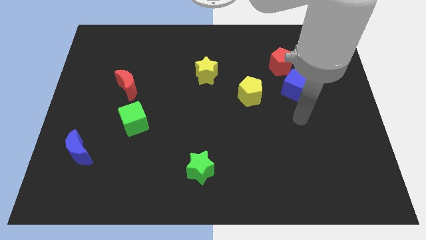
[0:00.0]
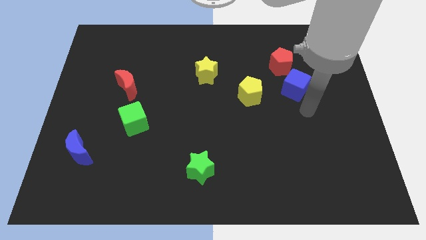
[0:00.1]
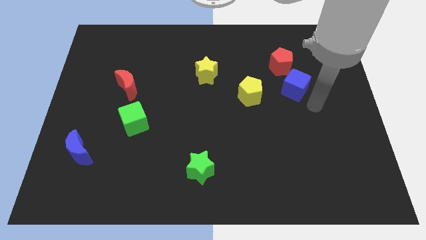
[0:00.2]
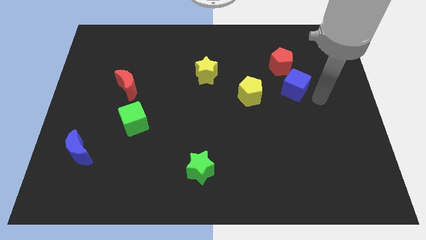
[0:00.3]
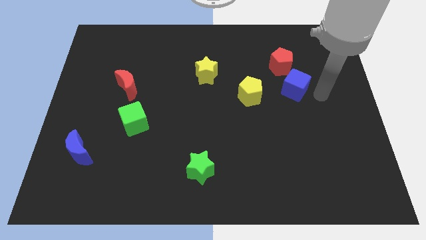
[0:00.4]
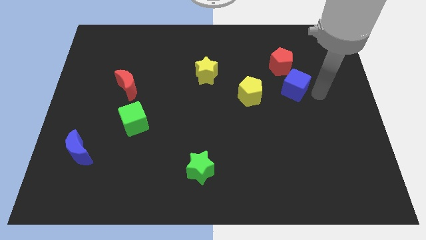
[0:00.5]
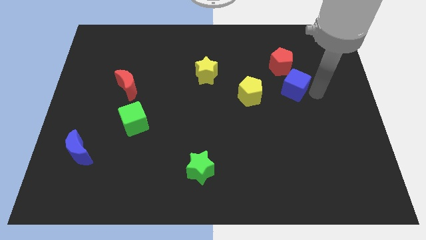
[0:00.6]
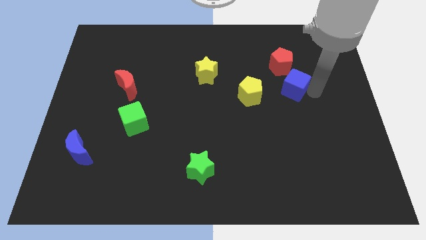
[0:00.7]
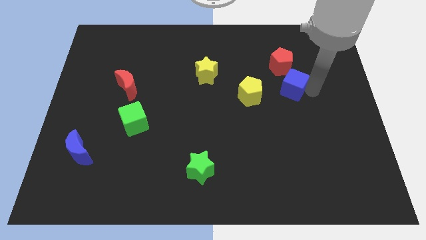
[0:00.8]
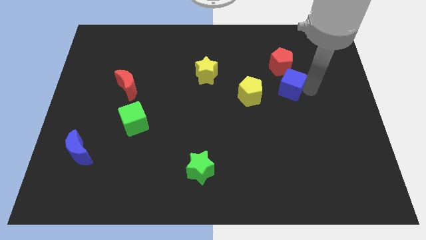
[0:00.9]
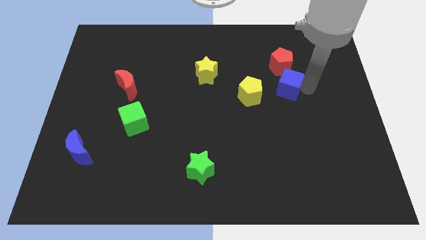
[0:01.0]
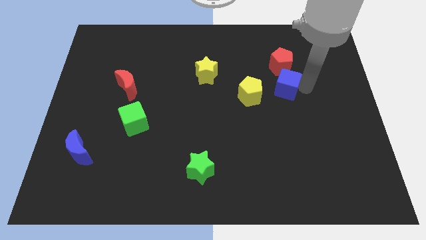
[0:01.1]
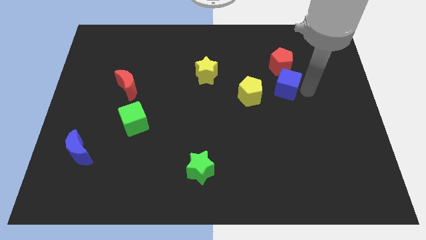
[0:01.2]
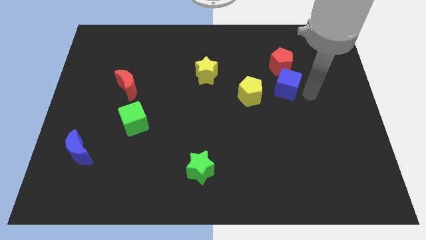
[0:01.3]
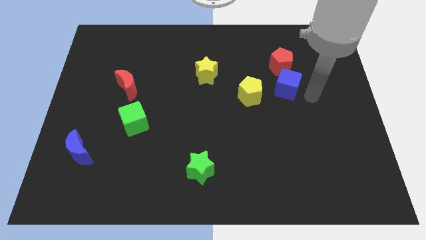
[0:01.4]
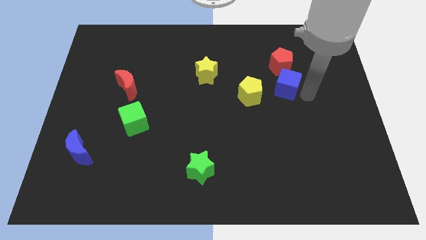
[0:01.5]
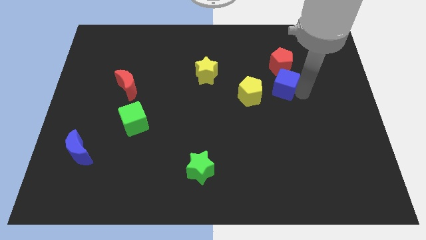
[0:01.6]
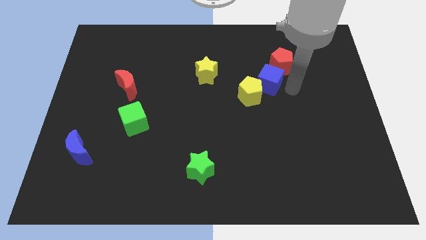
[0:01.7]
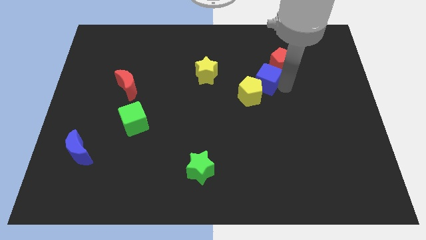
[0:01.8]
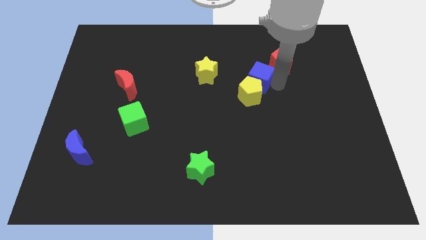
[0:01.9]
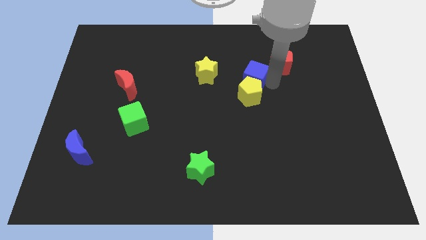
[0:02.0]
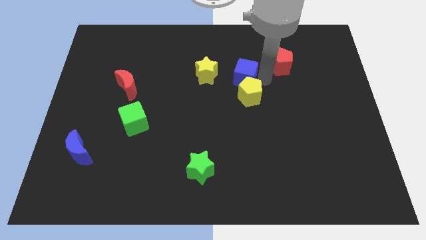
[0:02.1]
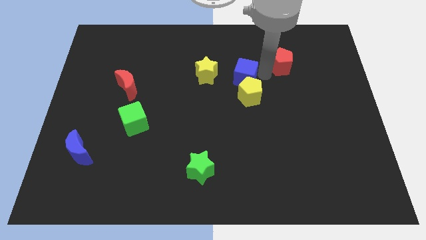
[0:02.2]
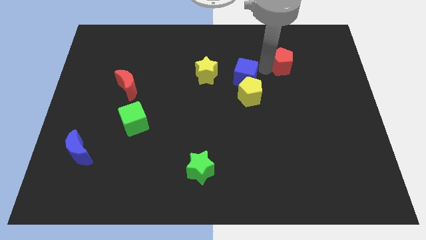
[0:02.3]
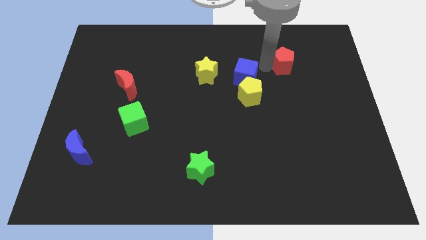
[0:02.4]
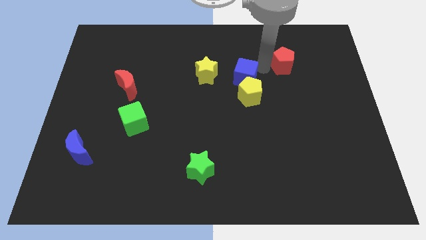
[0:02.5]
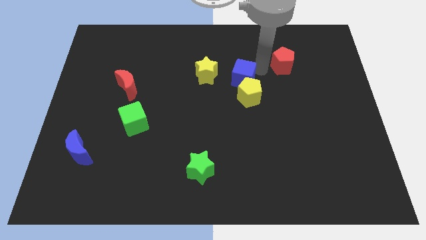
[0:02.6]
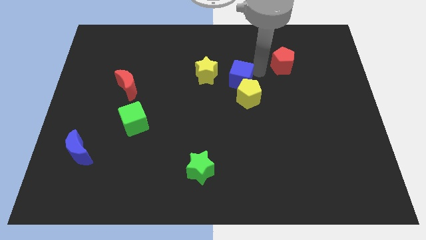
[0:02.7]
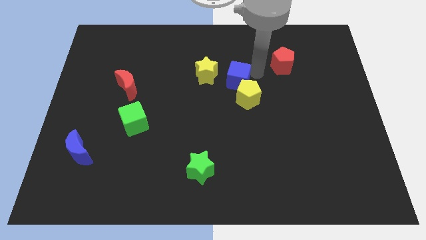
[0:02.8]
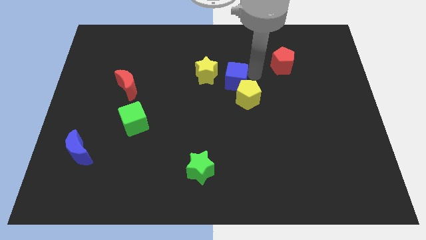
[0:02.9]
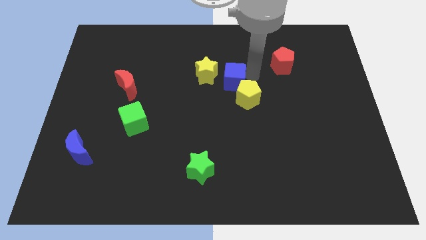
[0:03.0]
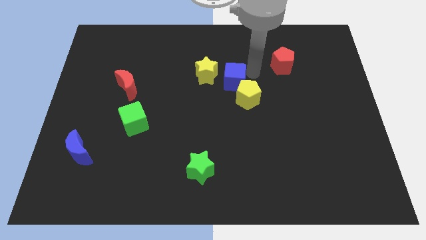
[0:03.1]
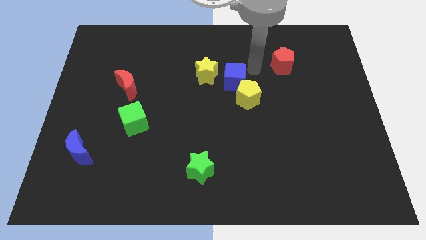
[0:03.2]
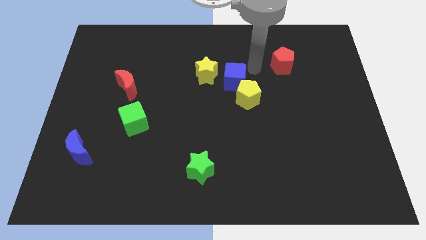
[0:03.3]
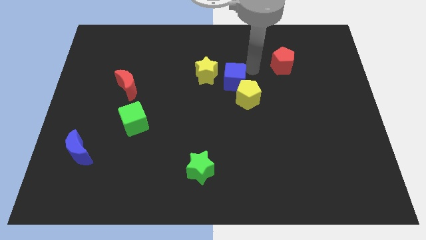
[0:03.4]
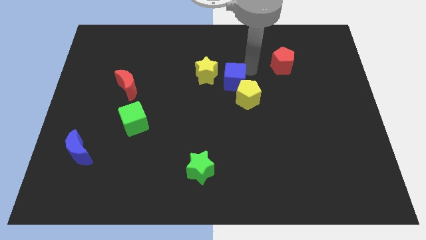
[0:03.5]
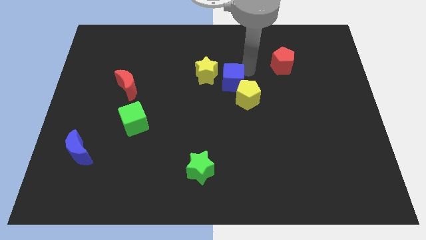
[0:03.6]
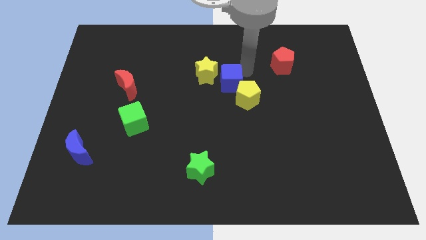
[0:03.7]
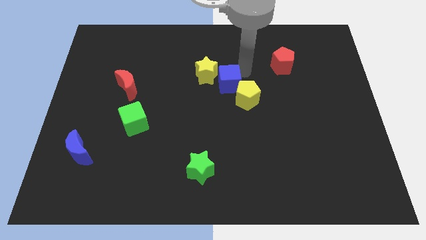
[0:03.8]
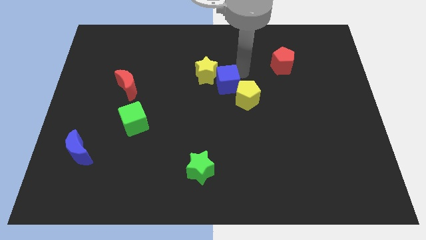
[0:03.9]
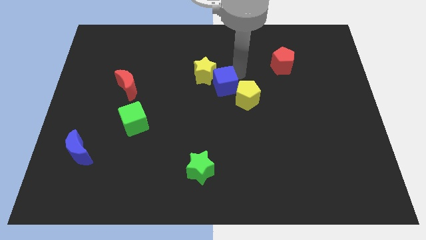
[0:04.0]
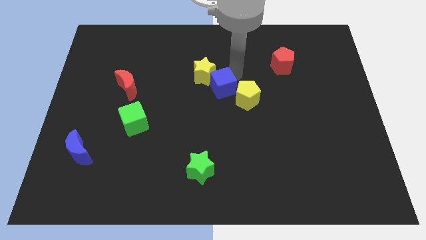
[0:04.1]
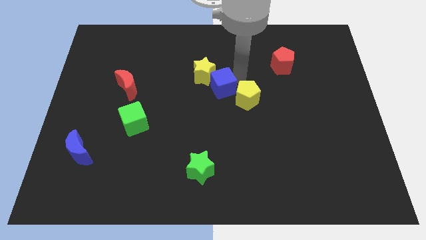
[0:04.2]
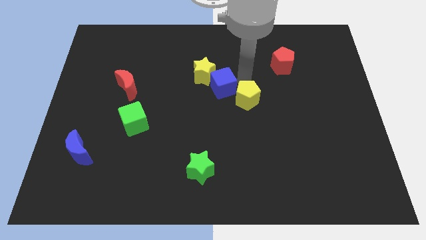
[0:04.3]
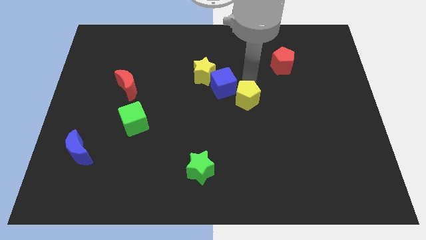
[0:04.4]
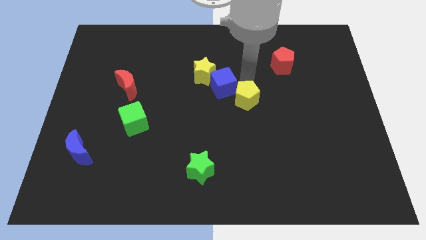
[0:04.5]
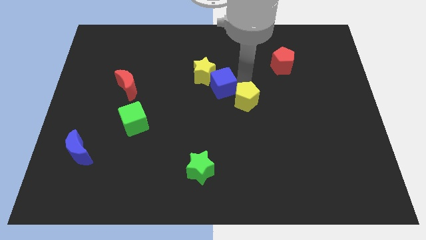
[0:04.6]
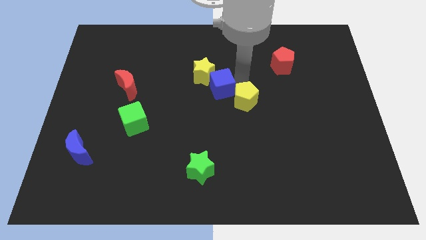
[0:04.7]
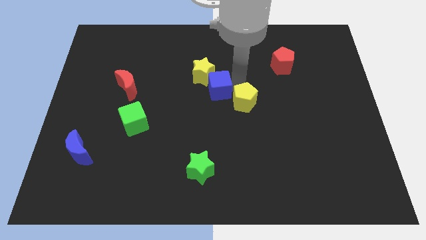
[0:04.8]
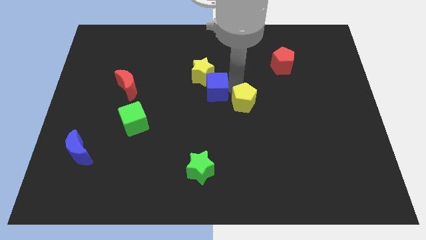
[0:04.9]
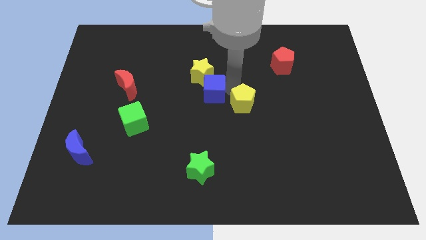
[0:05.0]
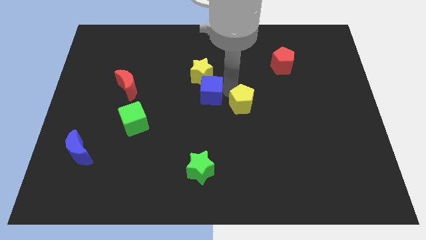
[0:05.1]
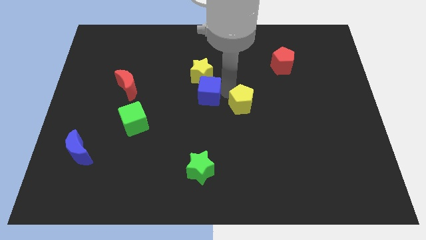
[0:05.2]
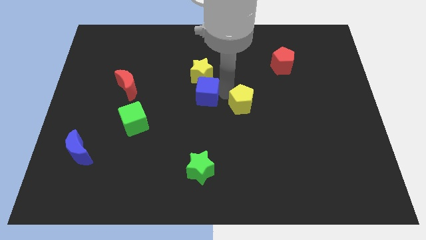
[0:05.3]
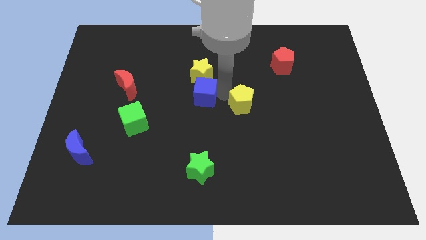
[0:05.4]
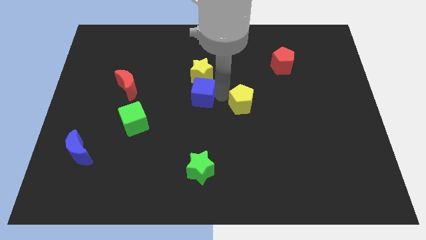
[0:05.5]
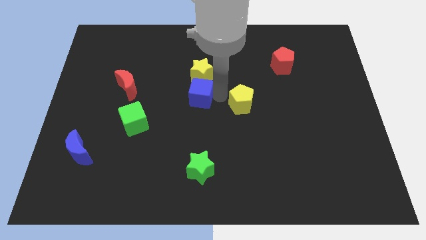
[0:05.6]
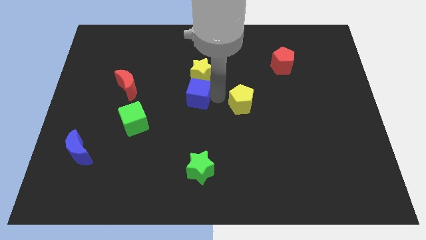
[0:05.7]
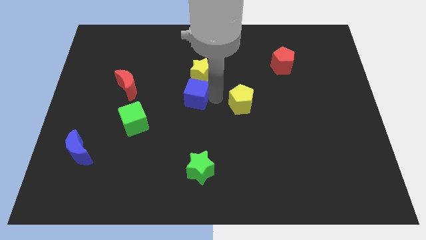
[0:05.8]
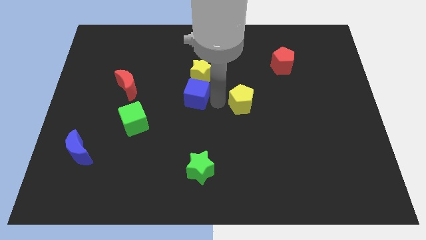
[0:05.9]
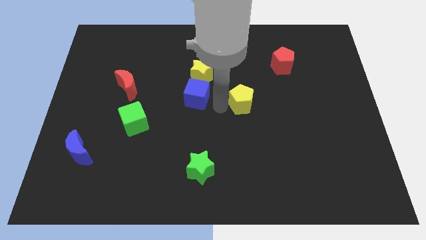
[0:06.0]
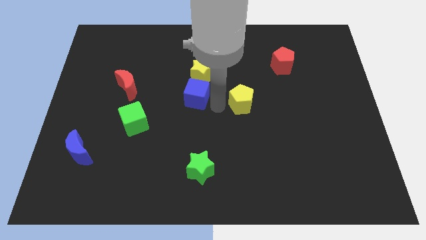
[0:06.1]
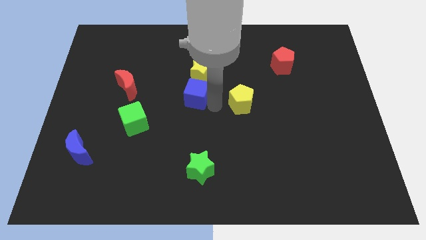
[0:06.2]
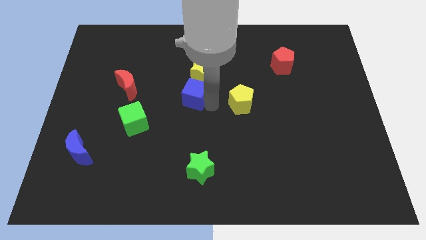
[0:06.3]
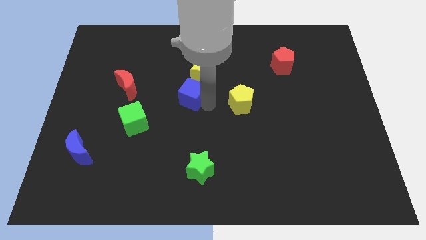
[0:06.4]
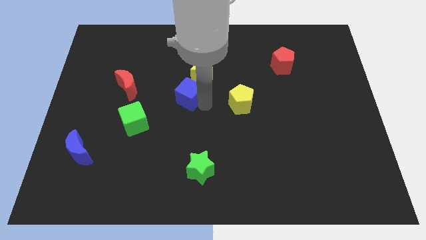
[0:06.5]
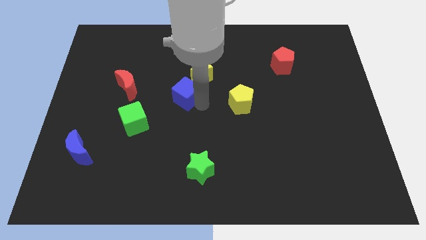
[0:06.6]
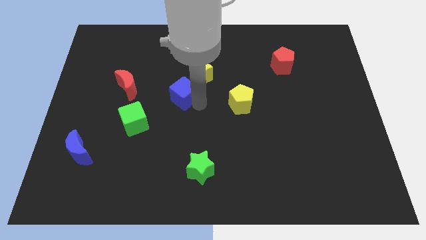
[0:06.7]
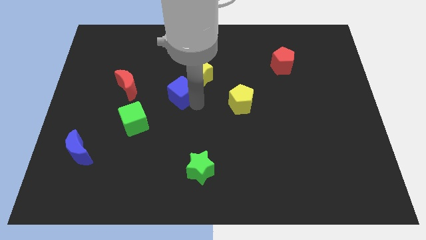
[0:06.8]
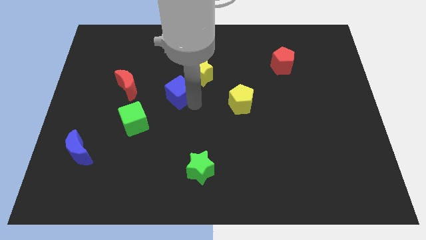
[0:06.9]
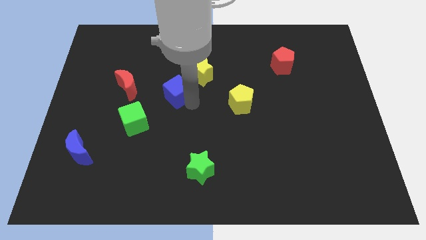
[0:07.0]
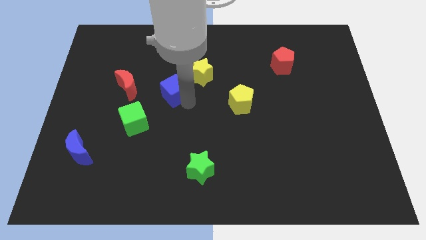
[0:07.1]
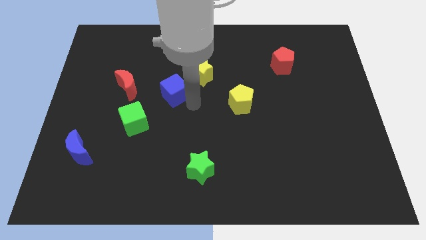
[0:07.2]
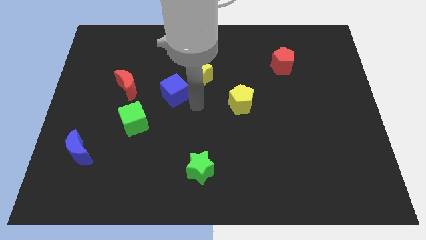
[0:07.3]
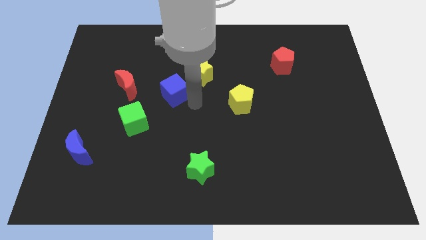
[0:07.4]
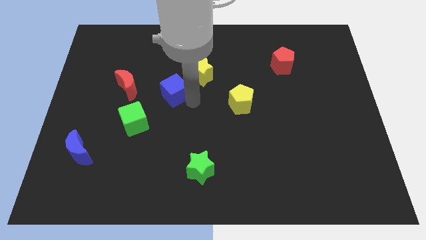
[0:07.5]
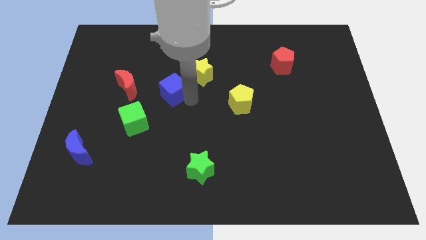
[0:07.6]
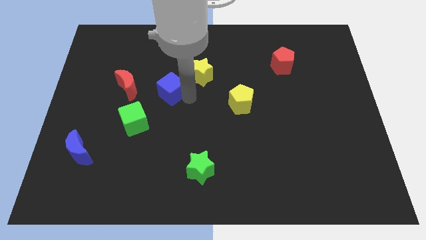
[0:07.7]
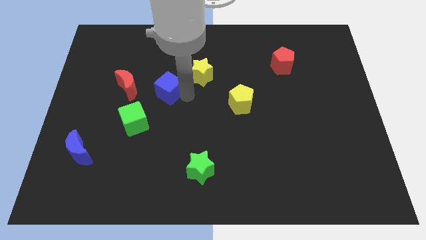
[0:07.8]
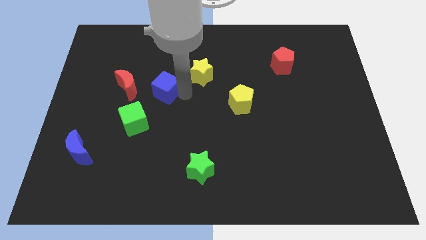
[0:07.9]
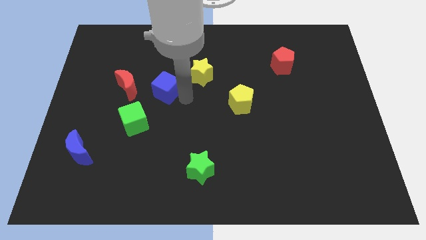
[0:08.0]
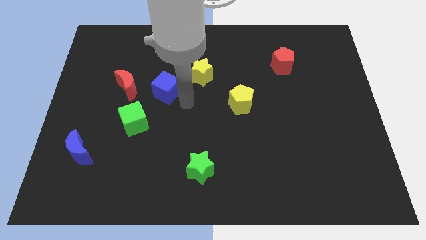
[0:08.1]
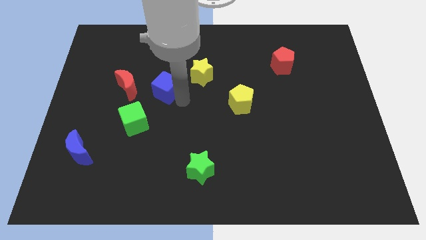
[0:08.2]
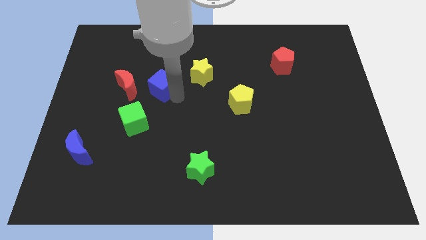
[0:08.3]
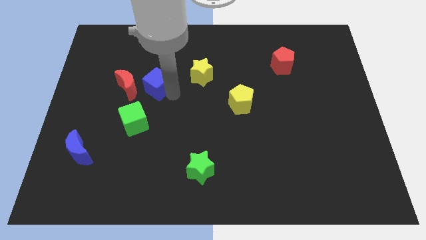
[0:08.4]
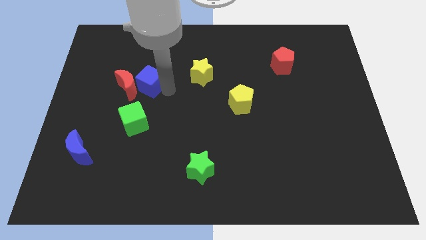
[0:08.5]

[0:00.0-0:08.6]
put the blue cube next to the red moon
